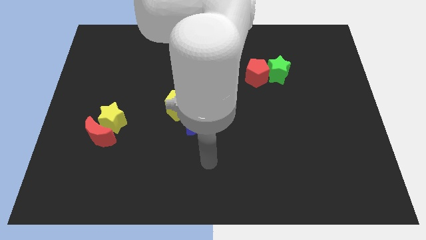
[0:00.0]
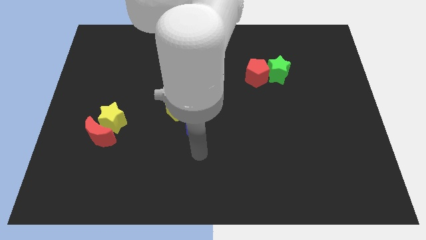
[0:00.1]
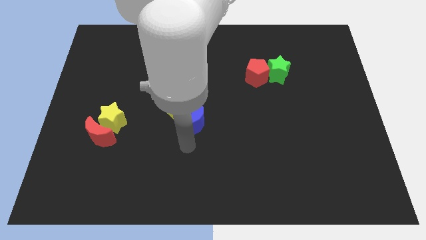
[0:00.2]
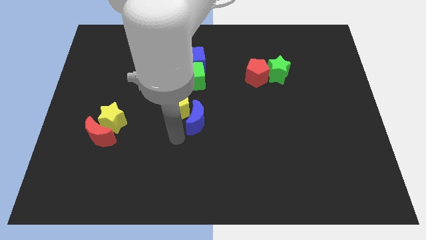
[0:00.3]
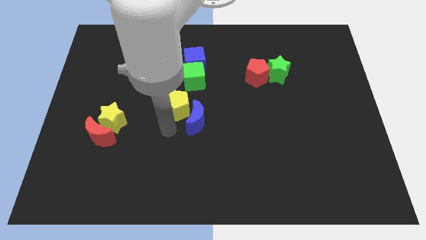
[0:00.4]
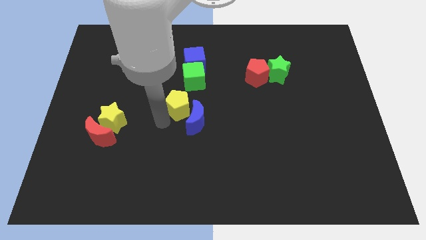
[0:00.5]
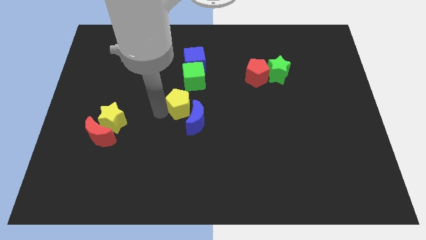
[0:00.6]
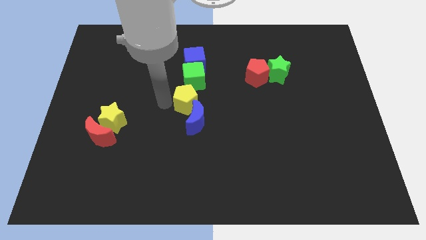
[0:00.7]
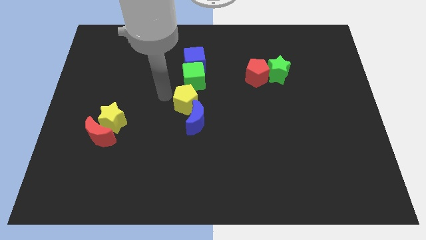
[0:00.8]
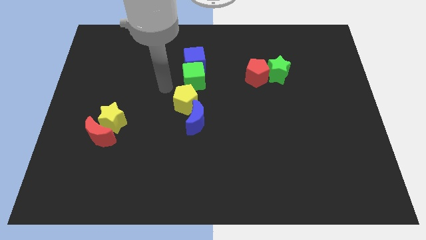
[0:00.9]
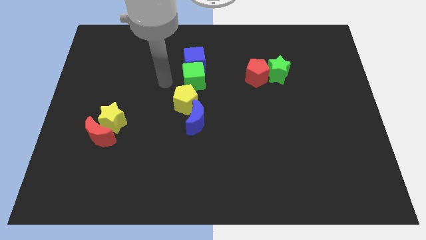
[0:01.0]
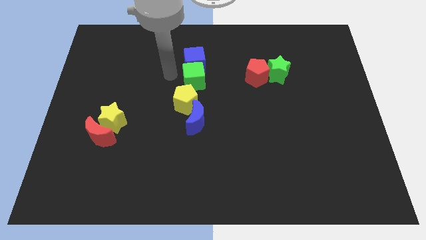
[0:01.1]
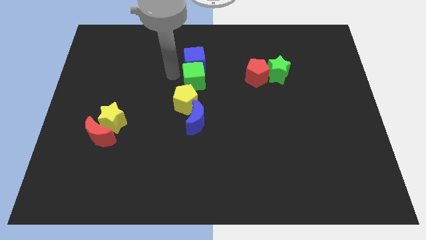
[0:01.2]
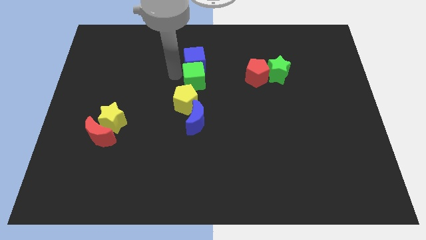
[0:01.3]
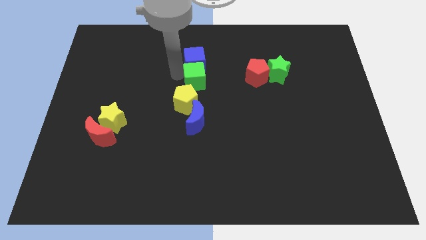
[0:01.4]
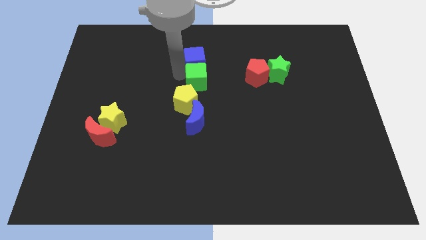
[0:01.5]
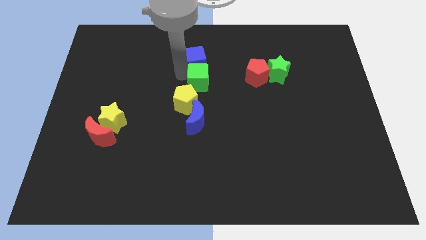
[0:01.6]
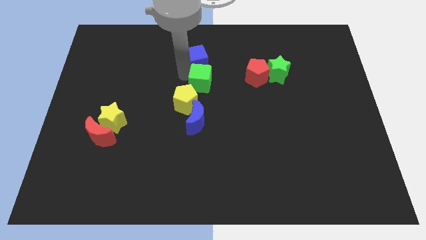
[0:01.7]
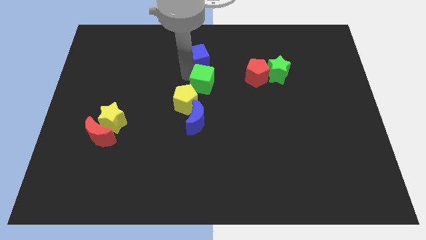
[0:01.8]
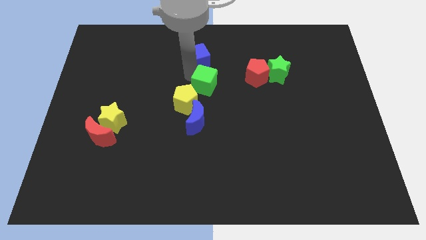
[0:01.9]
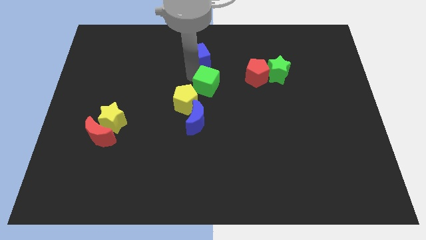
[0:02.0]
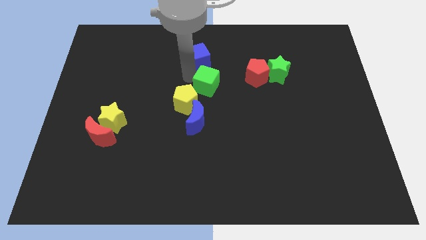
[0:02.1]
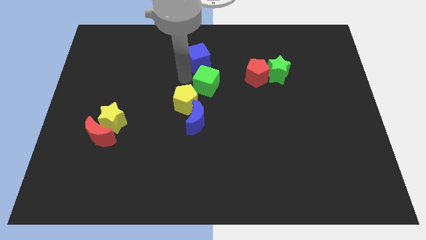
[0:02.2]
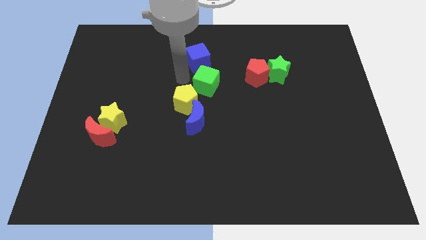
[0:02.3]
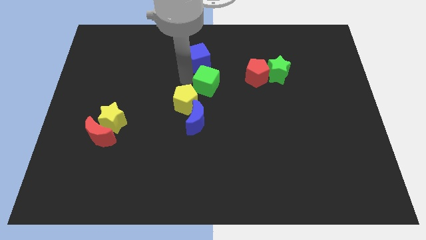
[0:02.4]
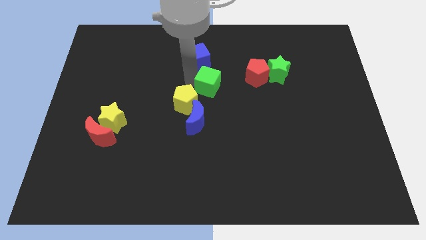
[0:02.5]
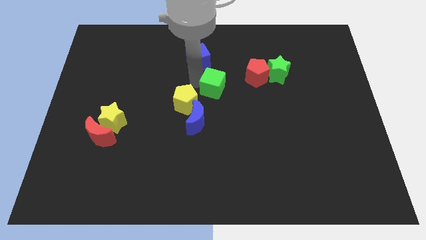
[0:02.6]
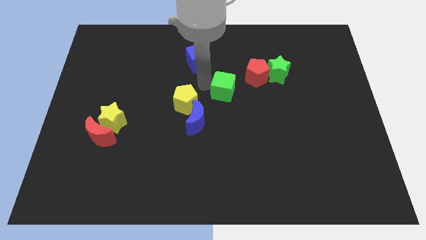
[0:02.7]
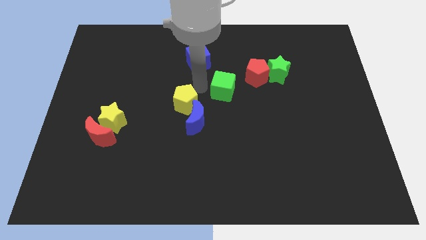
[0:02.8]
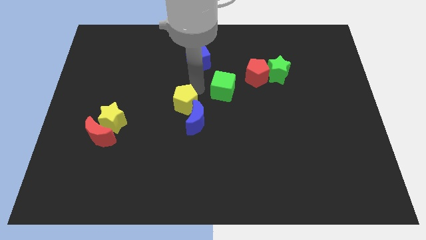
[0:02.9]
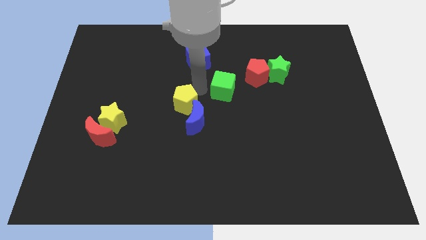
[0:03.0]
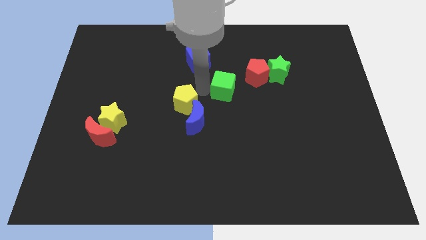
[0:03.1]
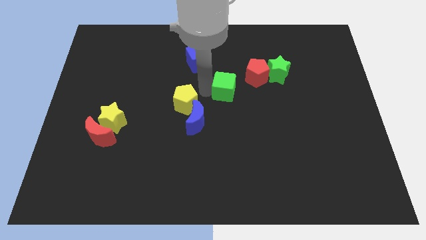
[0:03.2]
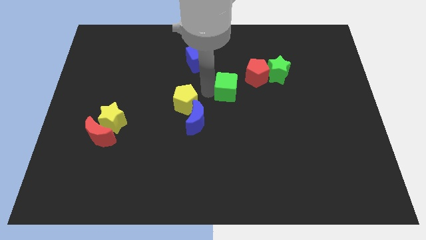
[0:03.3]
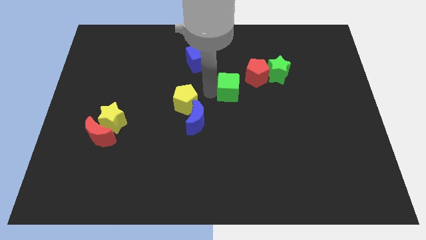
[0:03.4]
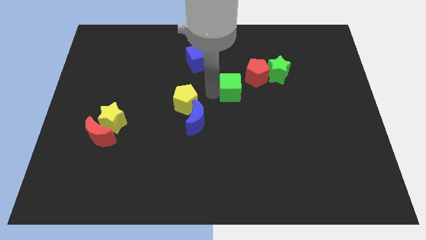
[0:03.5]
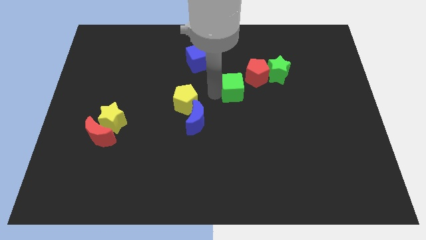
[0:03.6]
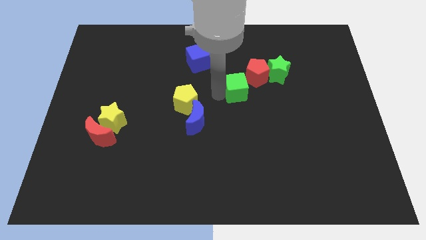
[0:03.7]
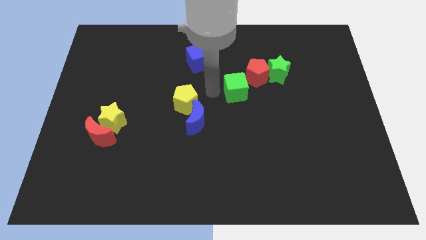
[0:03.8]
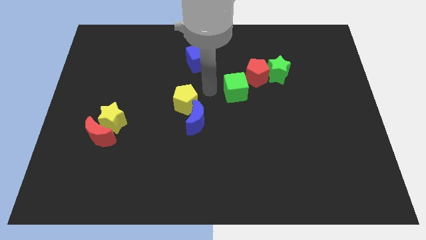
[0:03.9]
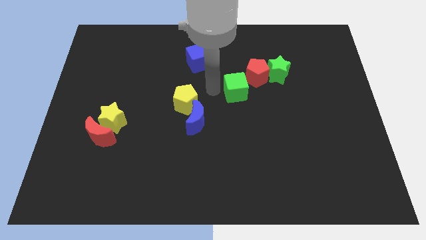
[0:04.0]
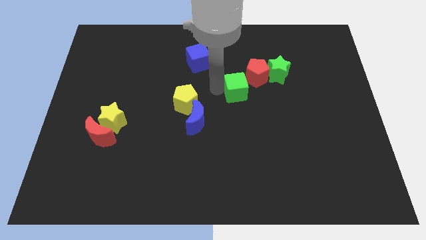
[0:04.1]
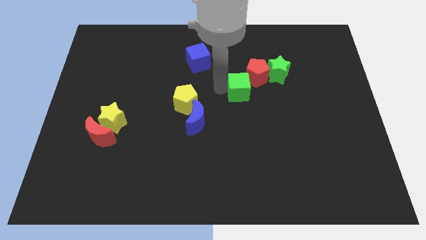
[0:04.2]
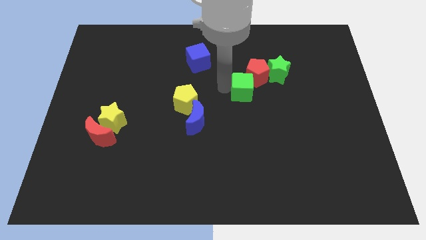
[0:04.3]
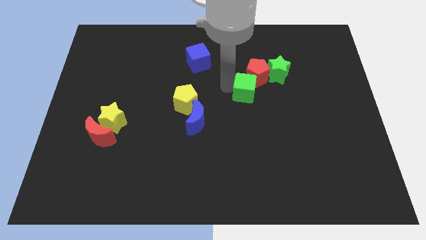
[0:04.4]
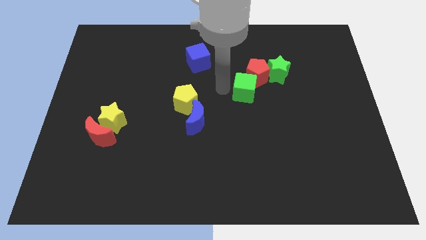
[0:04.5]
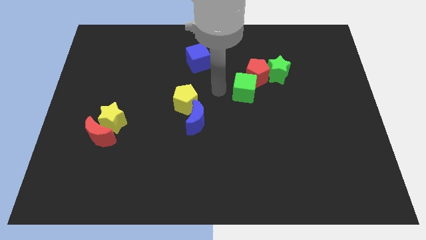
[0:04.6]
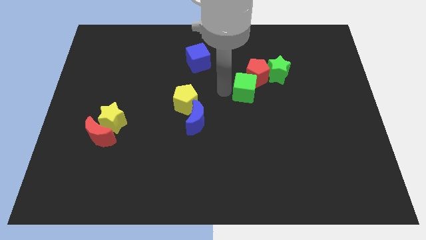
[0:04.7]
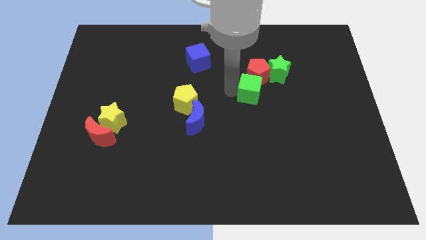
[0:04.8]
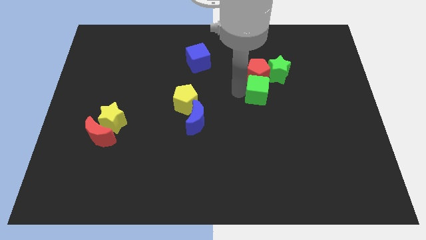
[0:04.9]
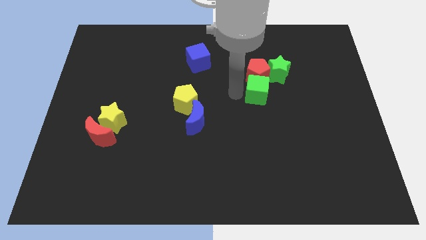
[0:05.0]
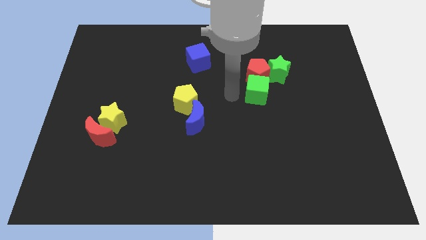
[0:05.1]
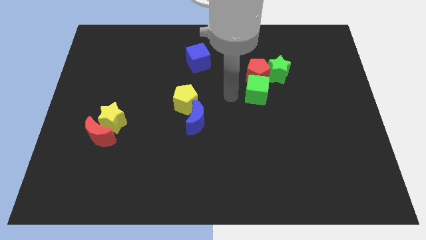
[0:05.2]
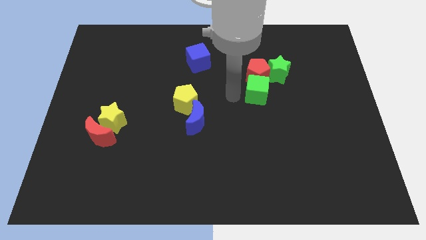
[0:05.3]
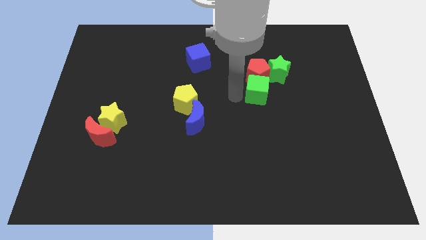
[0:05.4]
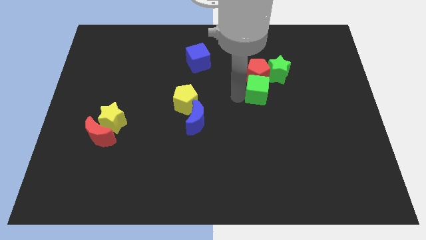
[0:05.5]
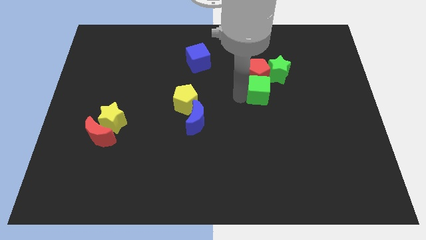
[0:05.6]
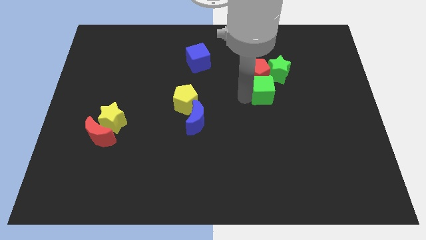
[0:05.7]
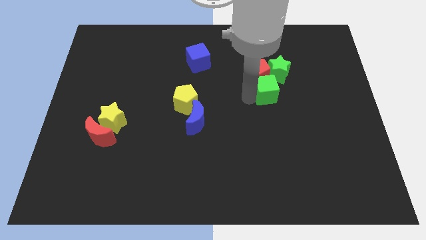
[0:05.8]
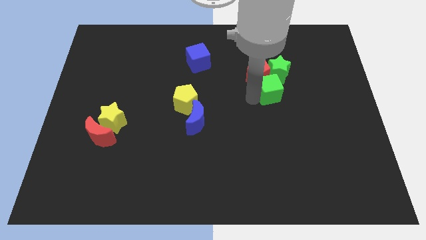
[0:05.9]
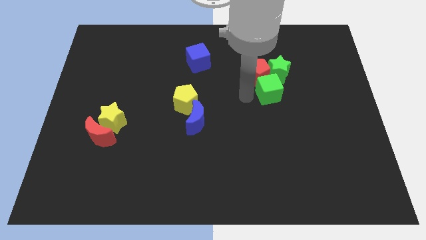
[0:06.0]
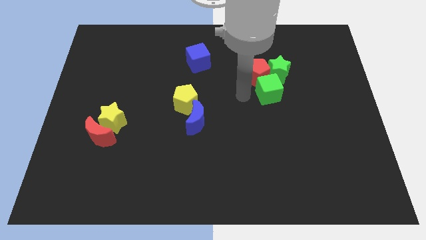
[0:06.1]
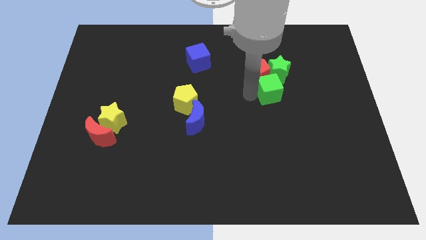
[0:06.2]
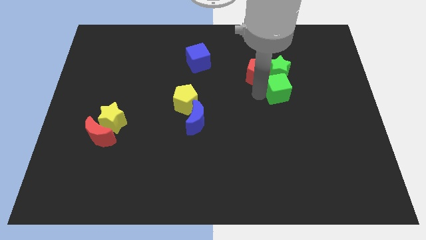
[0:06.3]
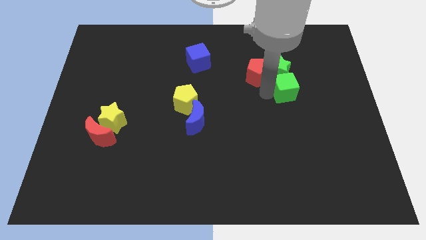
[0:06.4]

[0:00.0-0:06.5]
slide the green cube diagonally down and to the right of the green star

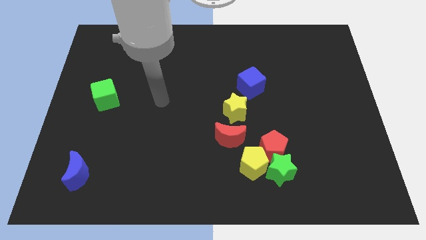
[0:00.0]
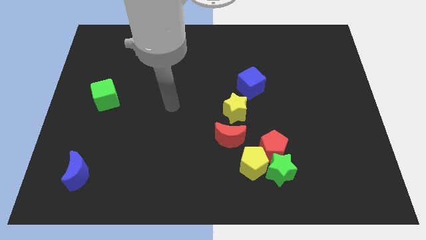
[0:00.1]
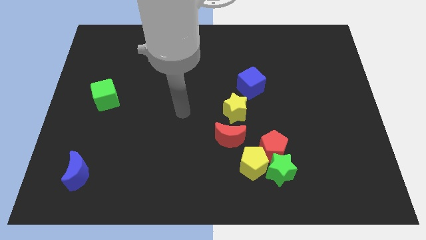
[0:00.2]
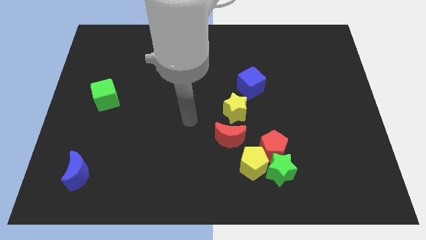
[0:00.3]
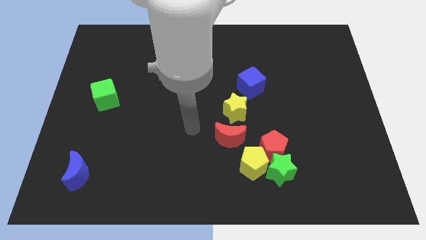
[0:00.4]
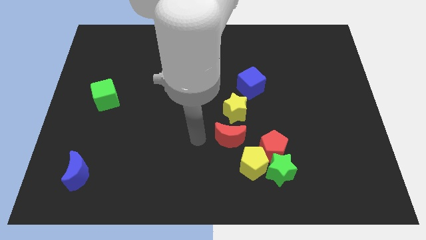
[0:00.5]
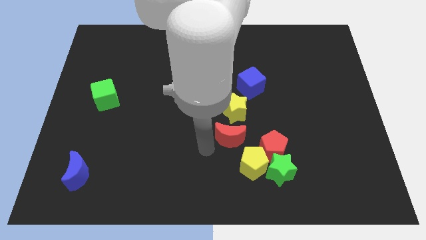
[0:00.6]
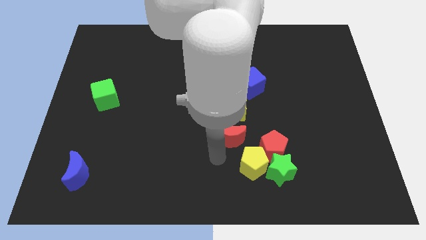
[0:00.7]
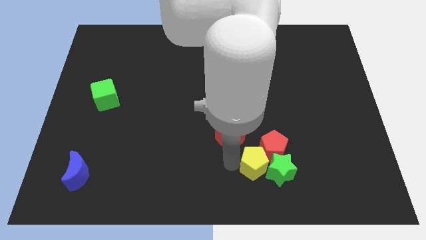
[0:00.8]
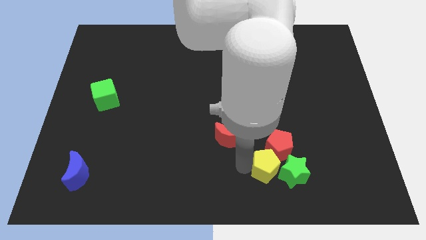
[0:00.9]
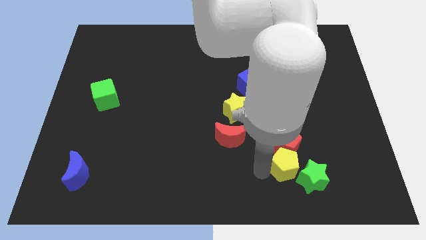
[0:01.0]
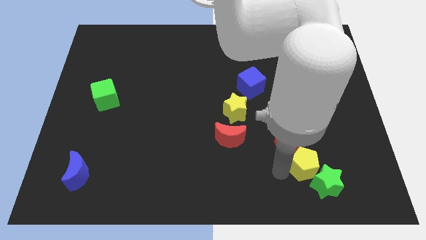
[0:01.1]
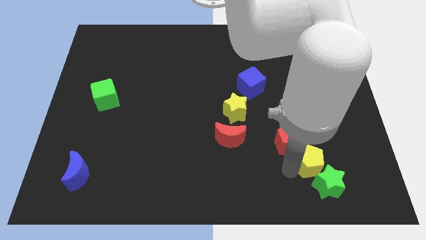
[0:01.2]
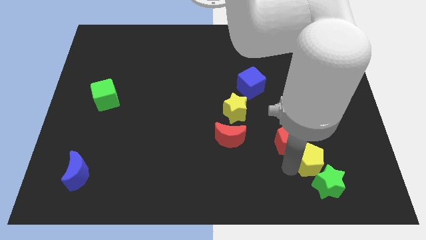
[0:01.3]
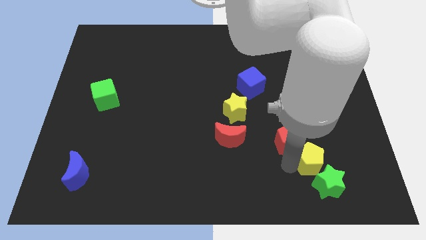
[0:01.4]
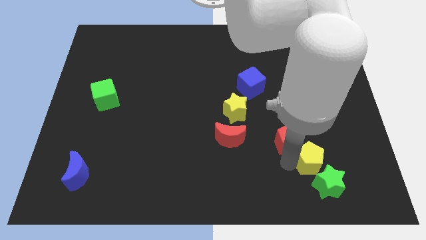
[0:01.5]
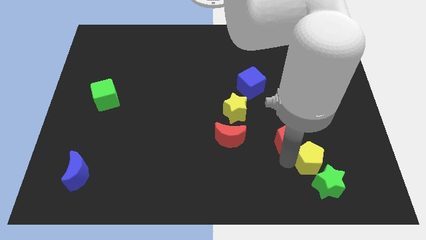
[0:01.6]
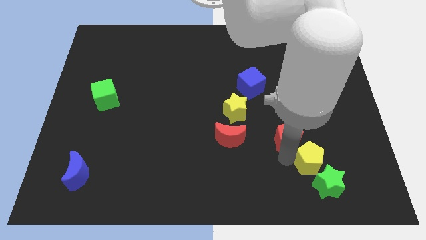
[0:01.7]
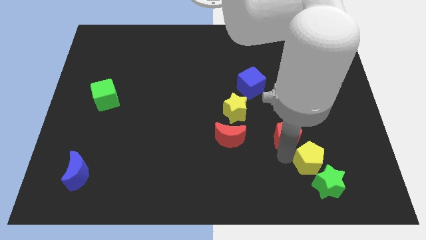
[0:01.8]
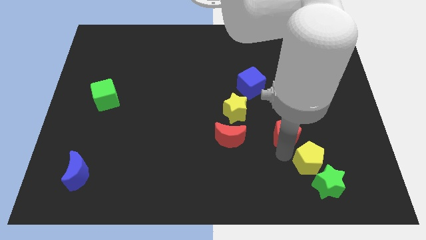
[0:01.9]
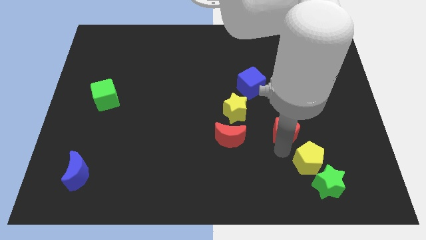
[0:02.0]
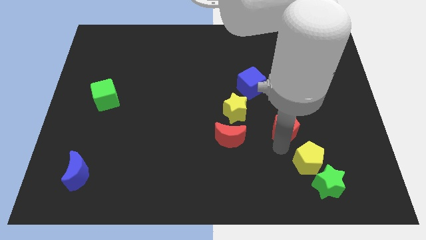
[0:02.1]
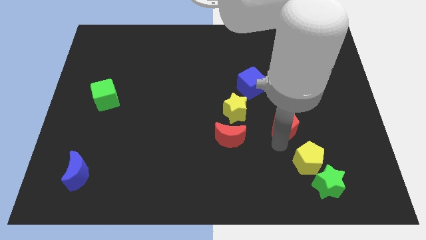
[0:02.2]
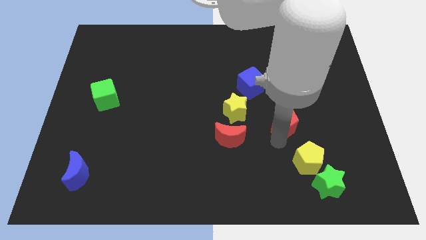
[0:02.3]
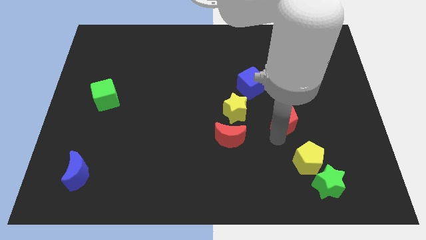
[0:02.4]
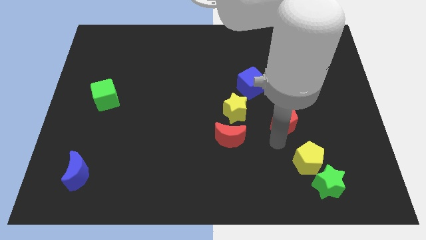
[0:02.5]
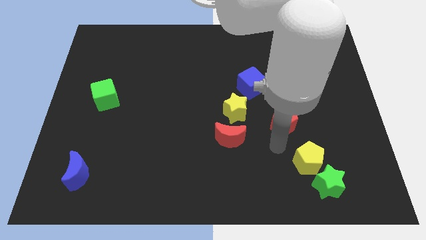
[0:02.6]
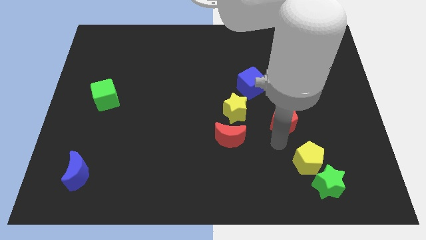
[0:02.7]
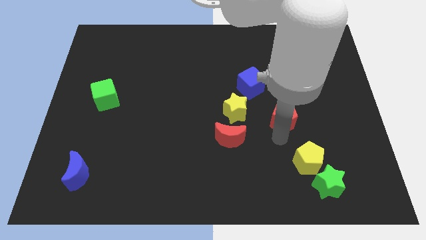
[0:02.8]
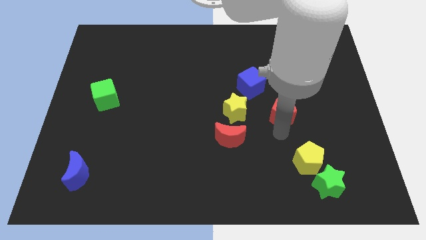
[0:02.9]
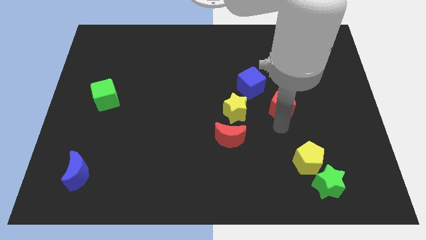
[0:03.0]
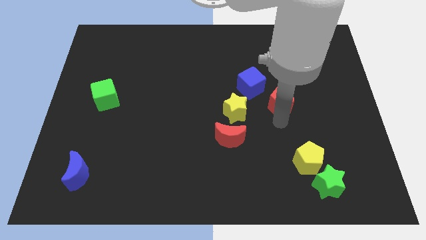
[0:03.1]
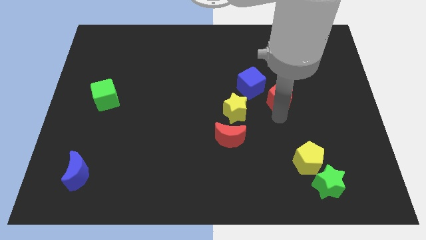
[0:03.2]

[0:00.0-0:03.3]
slide the red pentagon right of the blue cube
